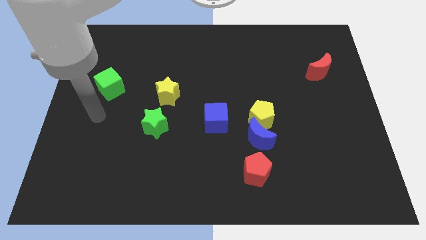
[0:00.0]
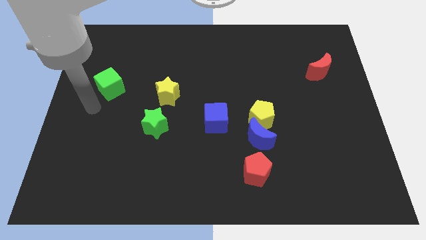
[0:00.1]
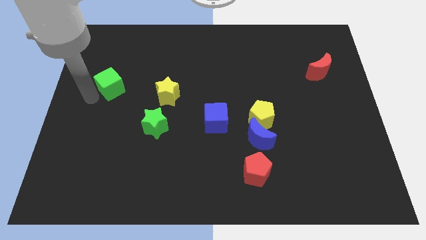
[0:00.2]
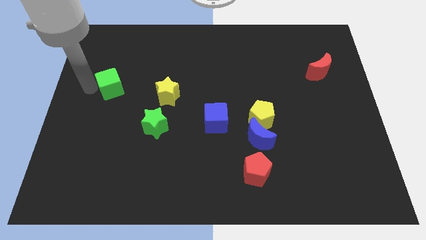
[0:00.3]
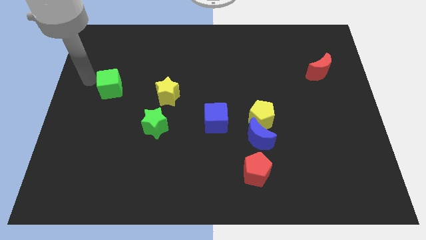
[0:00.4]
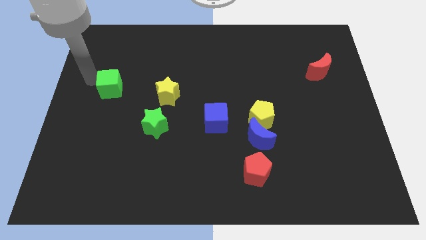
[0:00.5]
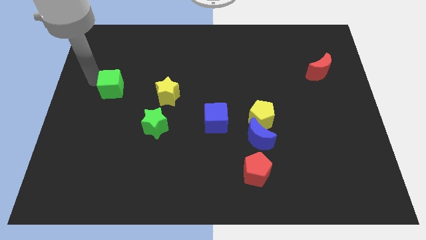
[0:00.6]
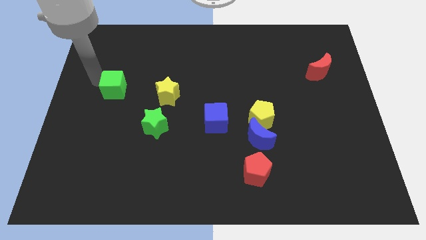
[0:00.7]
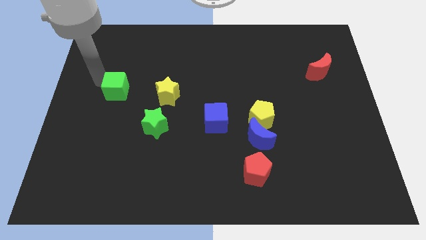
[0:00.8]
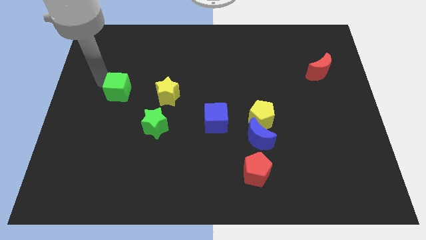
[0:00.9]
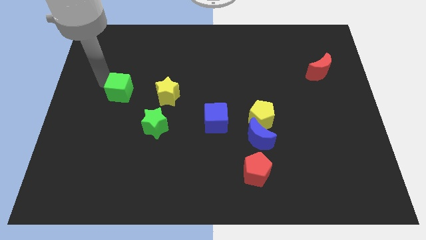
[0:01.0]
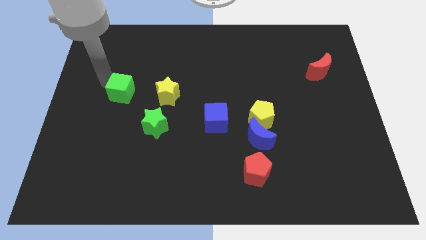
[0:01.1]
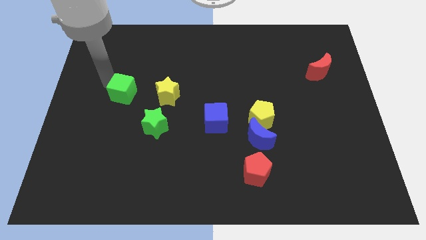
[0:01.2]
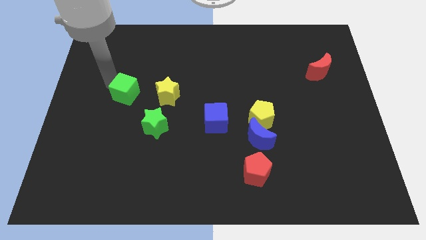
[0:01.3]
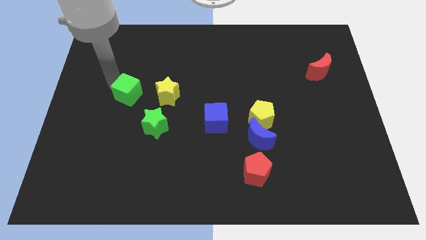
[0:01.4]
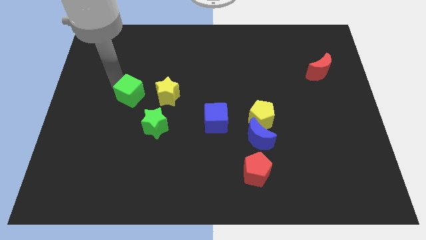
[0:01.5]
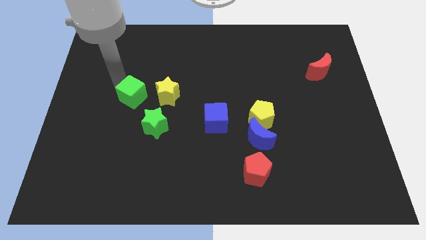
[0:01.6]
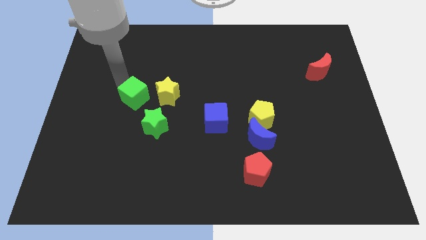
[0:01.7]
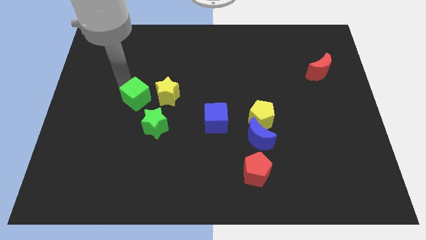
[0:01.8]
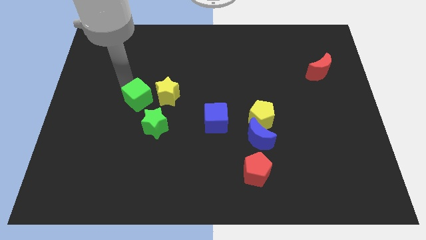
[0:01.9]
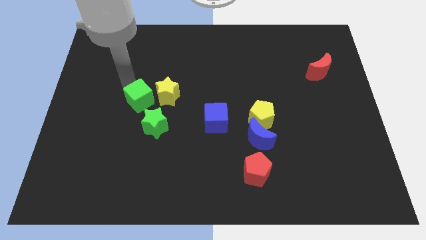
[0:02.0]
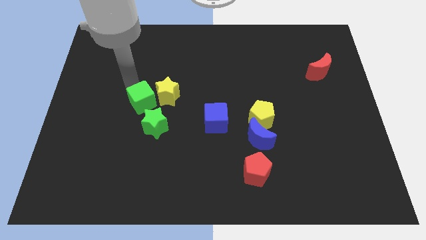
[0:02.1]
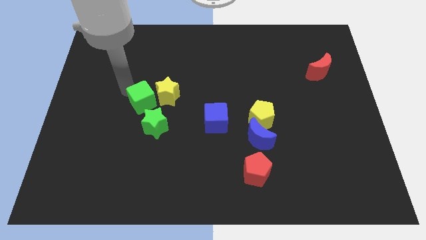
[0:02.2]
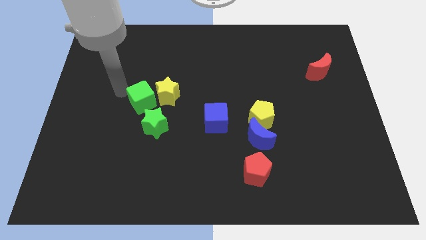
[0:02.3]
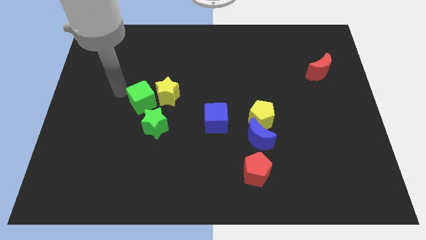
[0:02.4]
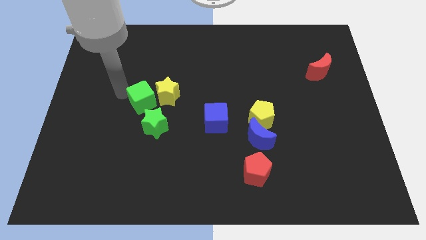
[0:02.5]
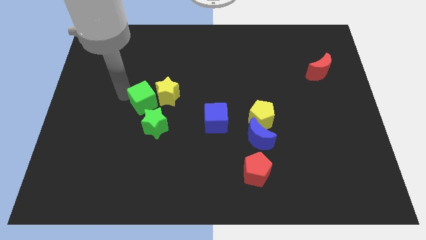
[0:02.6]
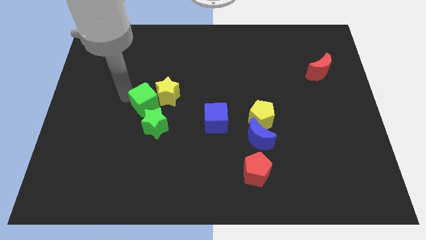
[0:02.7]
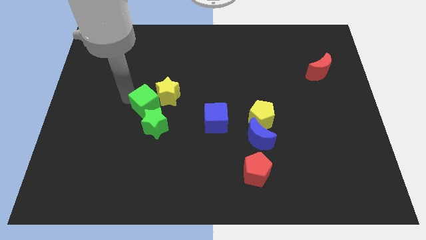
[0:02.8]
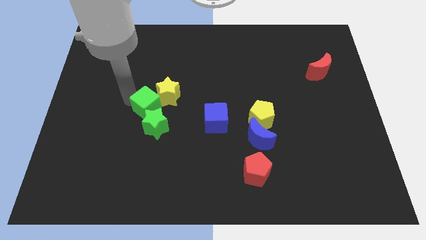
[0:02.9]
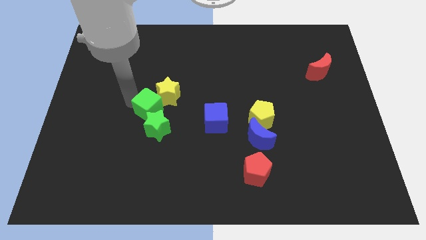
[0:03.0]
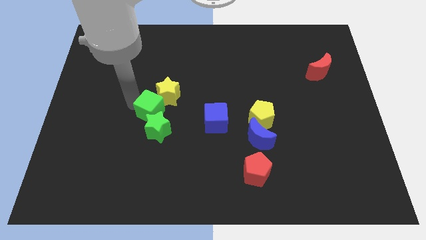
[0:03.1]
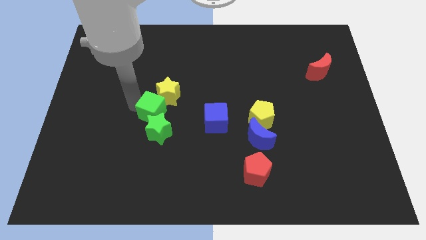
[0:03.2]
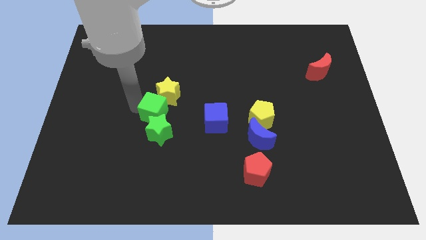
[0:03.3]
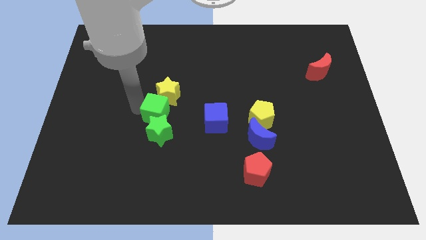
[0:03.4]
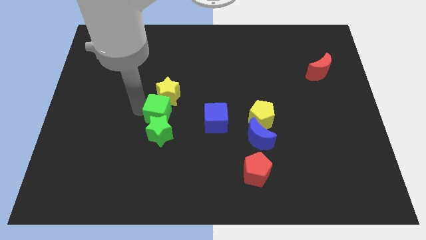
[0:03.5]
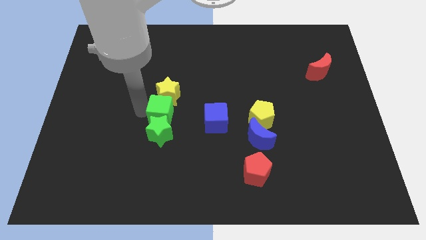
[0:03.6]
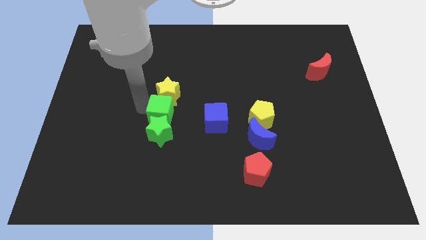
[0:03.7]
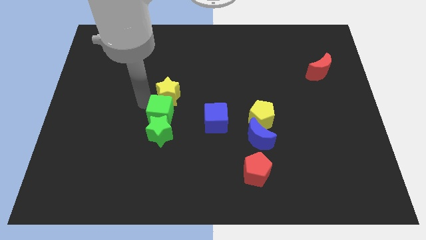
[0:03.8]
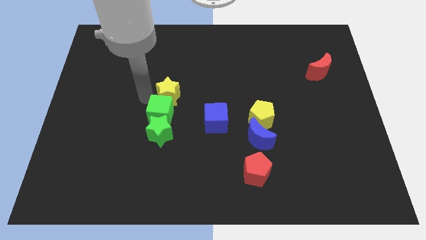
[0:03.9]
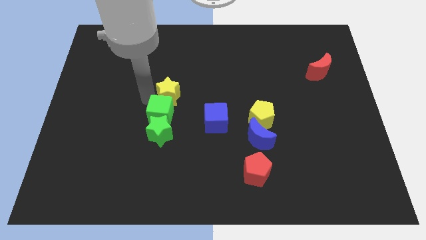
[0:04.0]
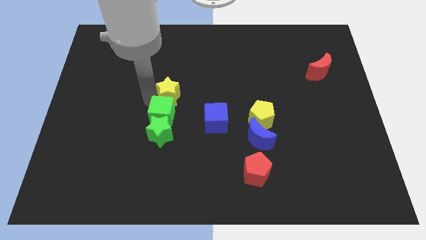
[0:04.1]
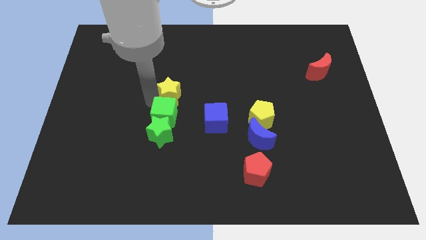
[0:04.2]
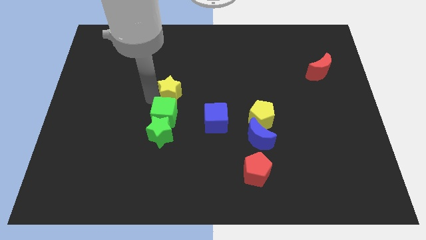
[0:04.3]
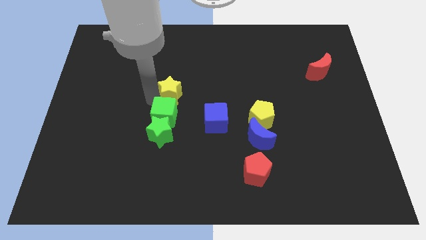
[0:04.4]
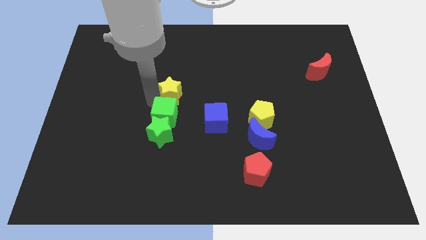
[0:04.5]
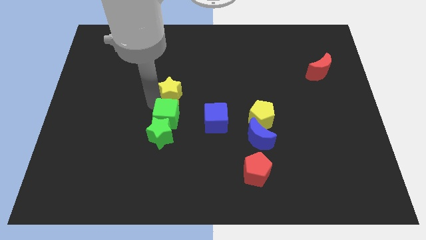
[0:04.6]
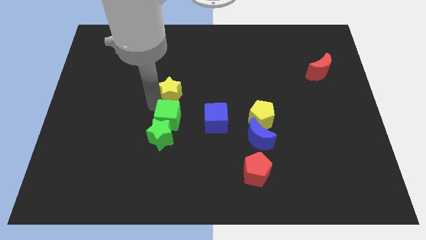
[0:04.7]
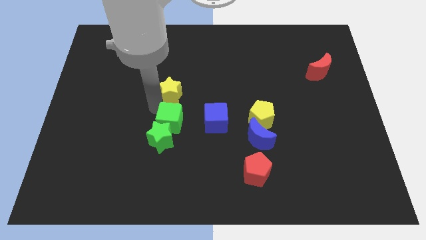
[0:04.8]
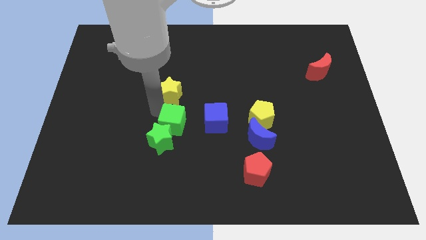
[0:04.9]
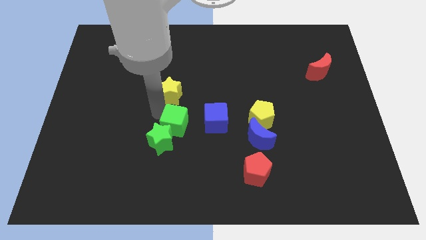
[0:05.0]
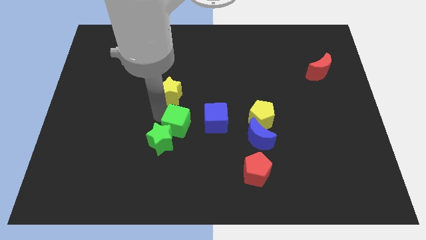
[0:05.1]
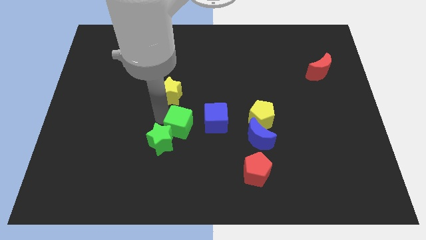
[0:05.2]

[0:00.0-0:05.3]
move the green cube down and then to the right

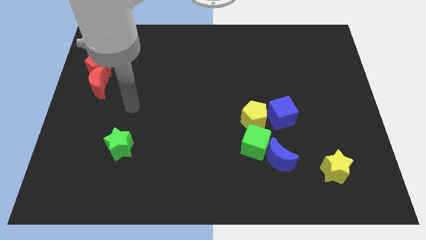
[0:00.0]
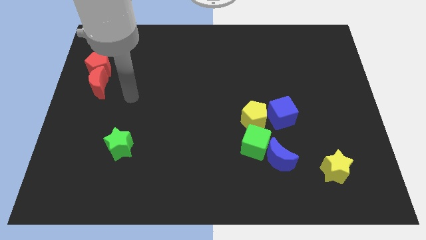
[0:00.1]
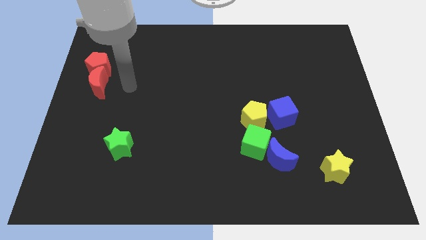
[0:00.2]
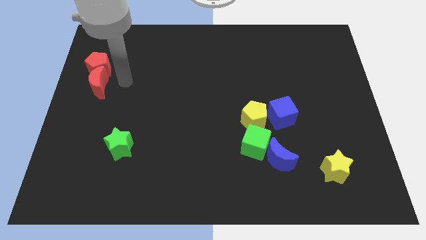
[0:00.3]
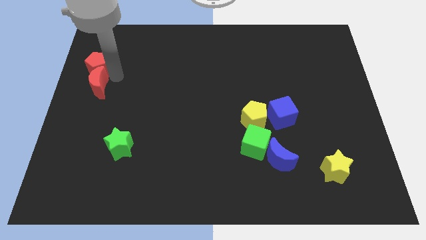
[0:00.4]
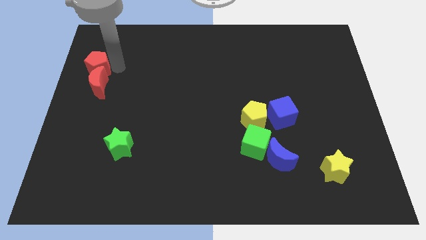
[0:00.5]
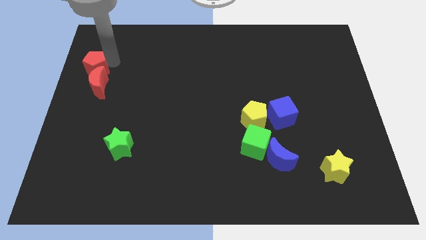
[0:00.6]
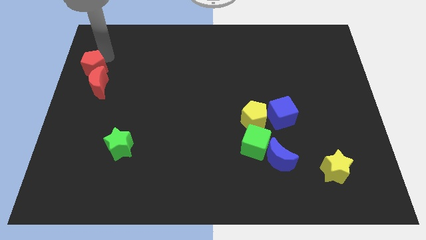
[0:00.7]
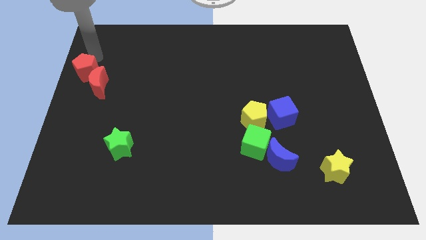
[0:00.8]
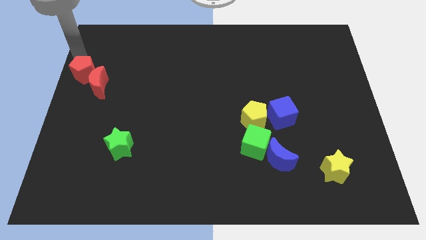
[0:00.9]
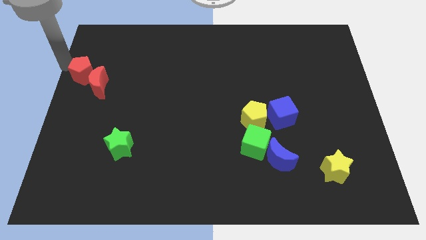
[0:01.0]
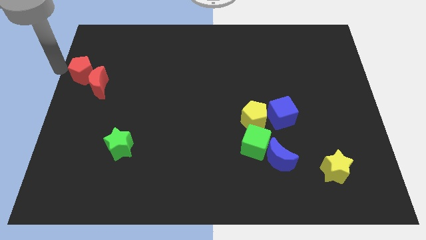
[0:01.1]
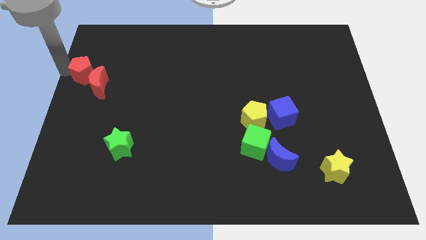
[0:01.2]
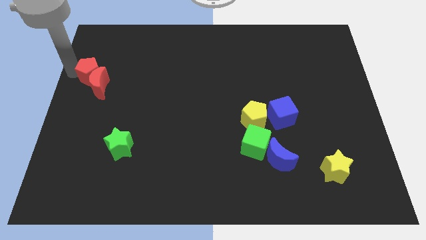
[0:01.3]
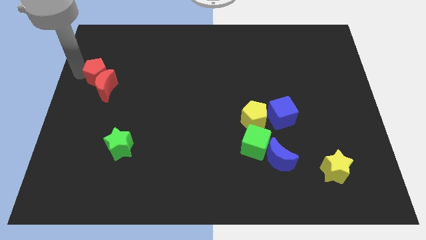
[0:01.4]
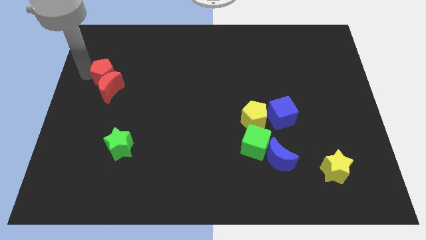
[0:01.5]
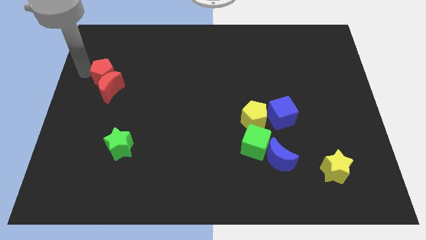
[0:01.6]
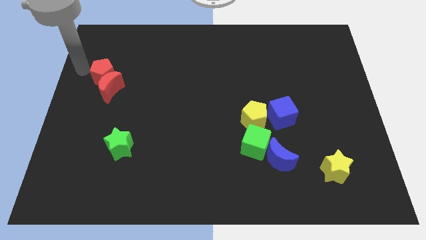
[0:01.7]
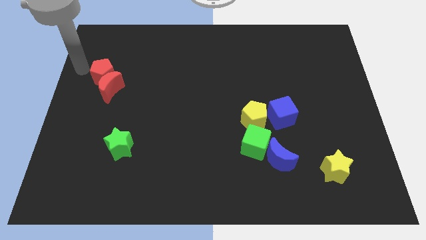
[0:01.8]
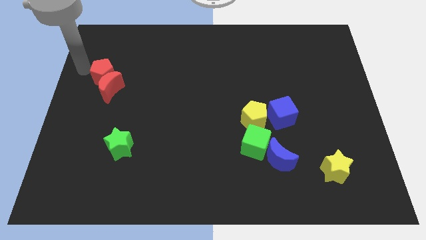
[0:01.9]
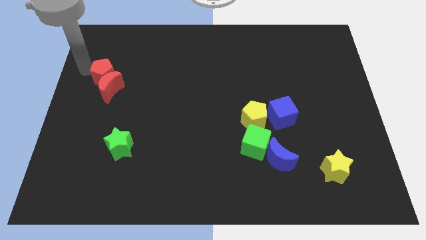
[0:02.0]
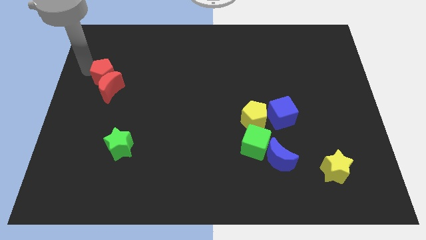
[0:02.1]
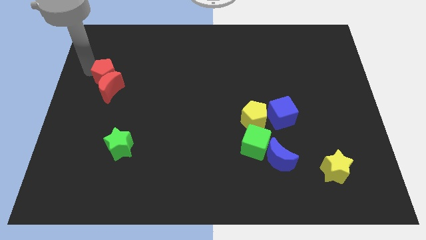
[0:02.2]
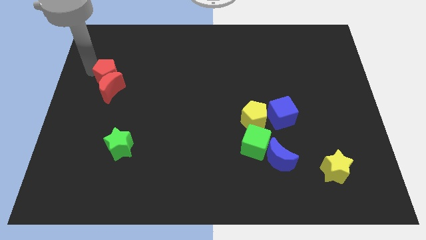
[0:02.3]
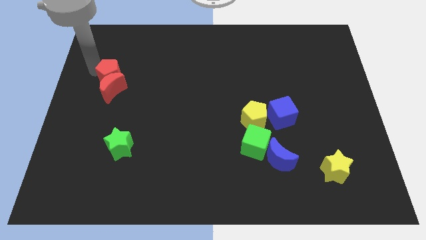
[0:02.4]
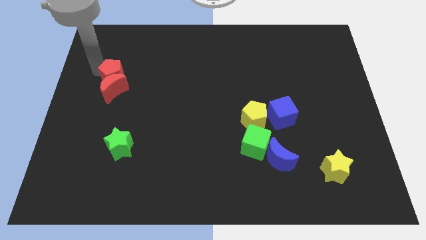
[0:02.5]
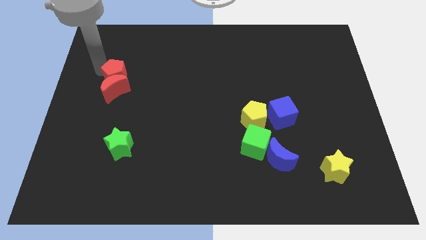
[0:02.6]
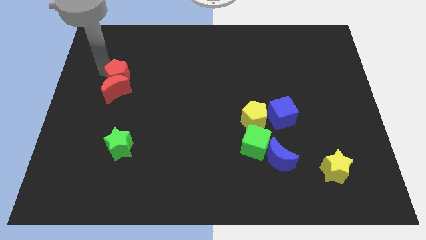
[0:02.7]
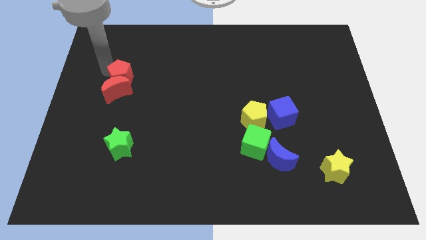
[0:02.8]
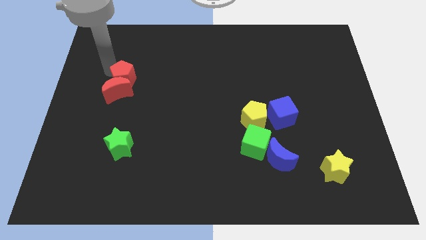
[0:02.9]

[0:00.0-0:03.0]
slightly slide the red pentagon downwards and to the right diagonally
